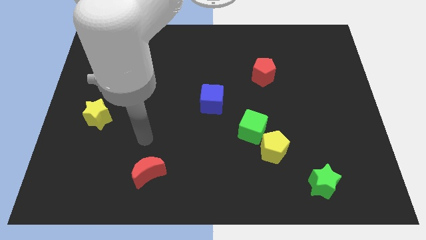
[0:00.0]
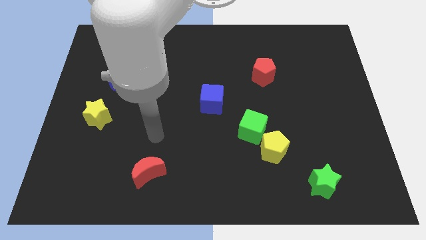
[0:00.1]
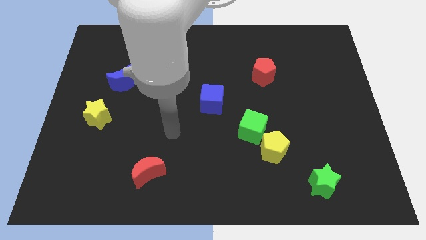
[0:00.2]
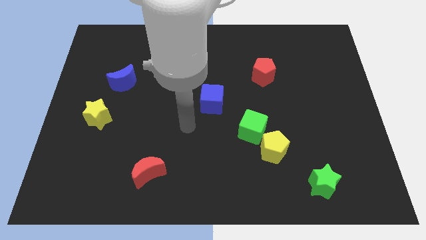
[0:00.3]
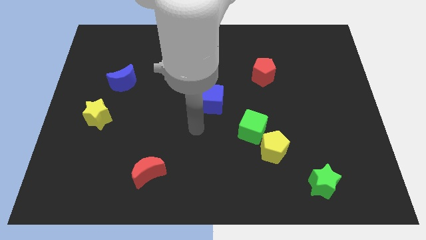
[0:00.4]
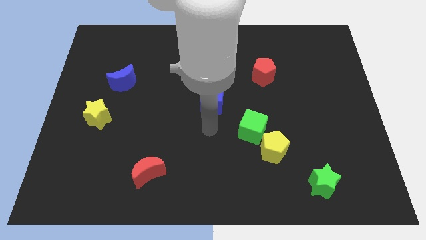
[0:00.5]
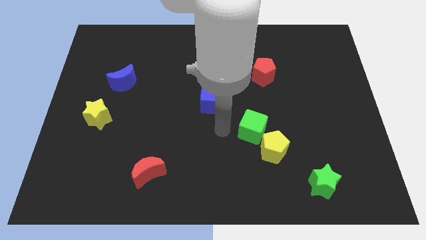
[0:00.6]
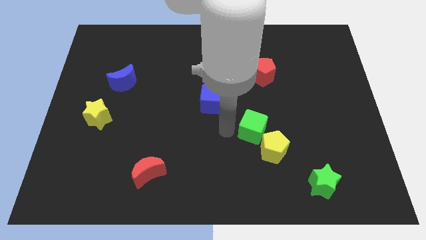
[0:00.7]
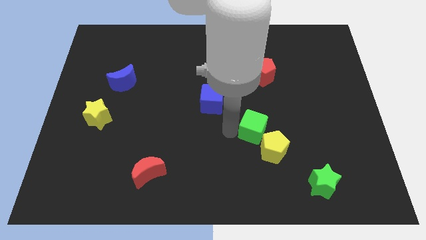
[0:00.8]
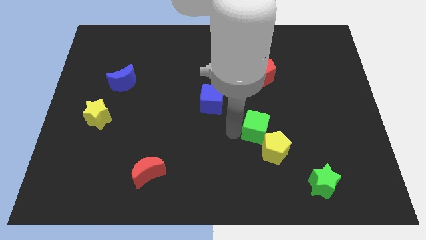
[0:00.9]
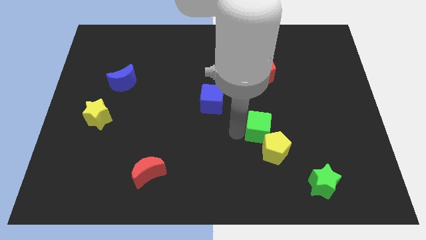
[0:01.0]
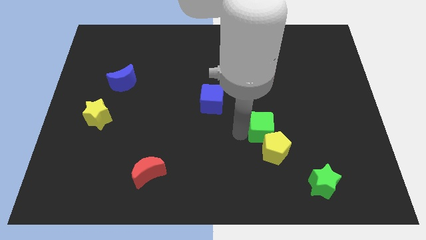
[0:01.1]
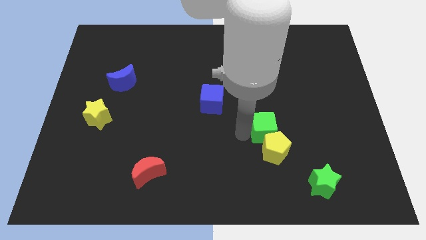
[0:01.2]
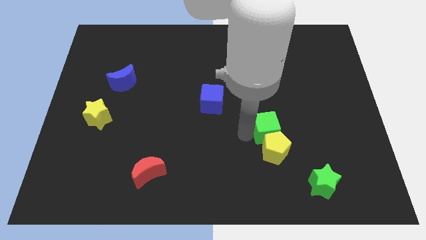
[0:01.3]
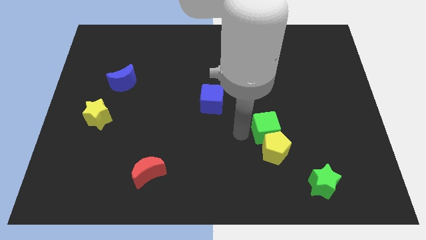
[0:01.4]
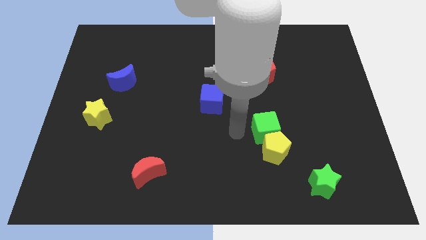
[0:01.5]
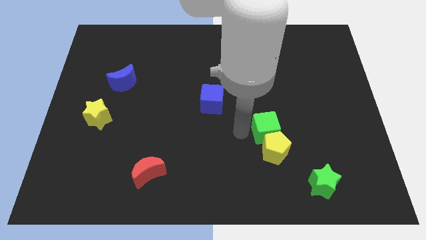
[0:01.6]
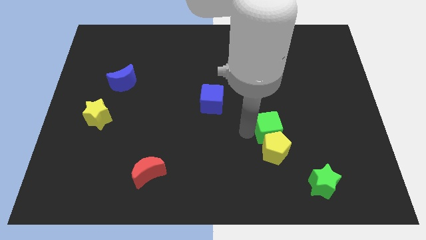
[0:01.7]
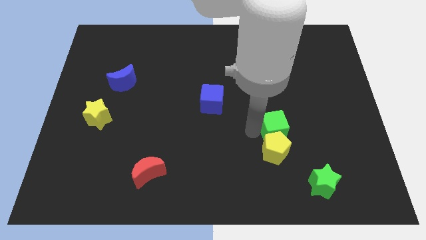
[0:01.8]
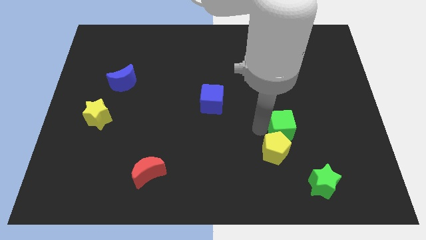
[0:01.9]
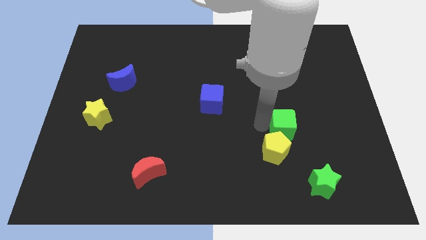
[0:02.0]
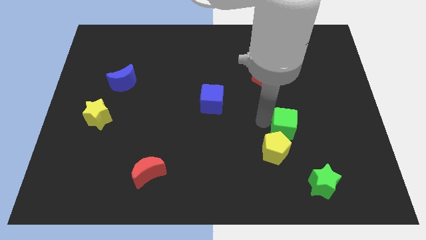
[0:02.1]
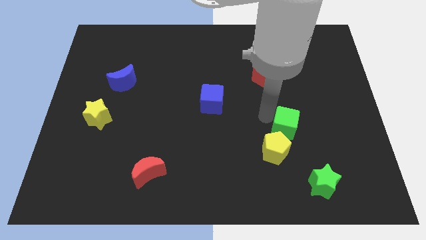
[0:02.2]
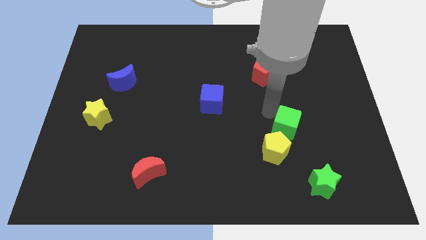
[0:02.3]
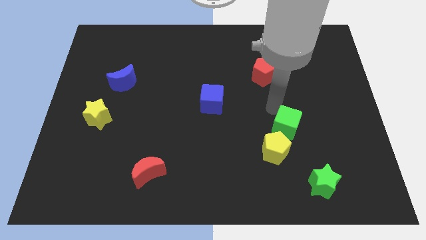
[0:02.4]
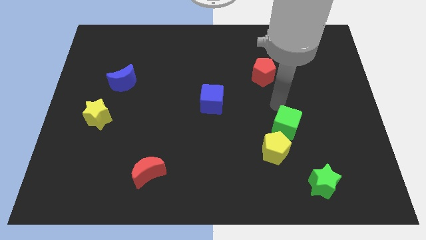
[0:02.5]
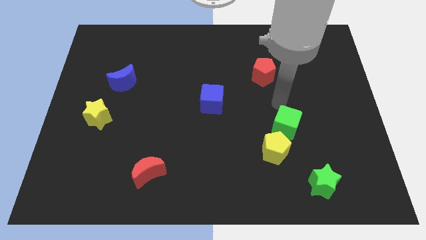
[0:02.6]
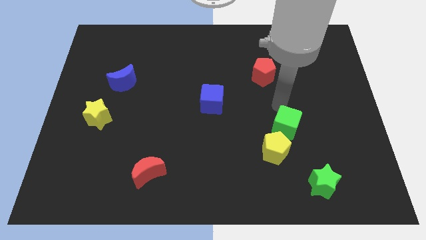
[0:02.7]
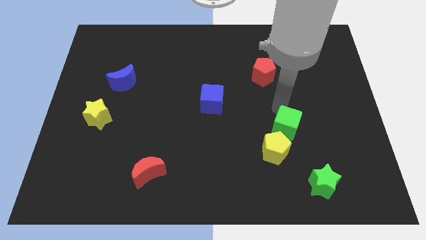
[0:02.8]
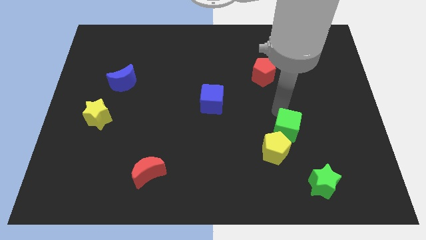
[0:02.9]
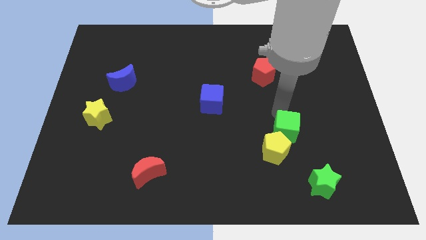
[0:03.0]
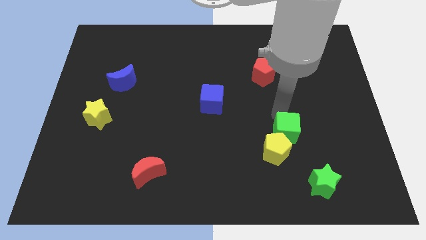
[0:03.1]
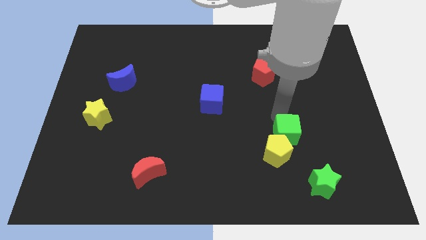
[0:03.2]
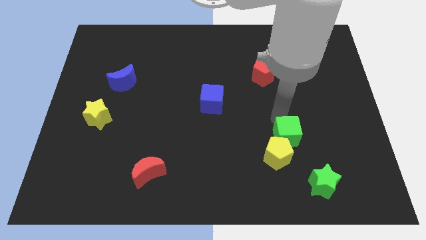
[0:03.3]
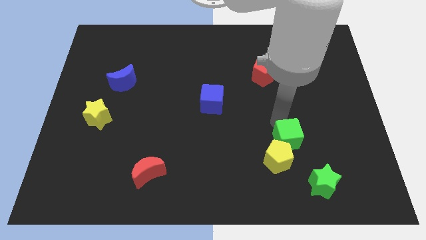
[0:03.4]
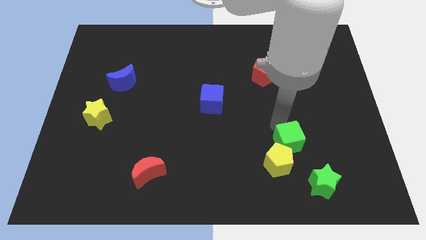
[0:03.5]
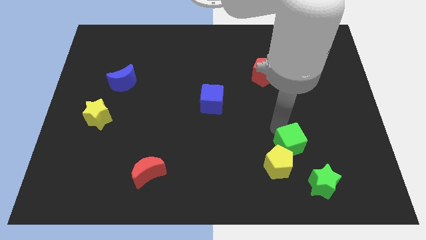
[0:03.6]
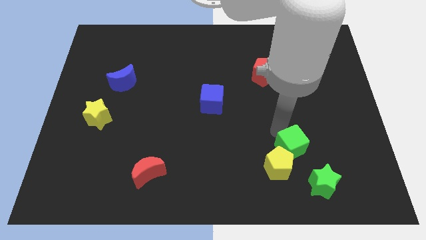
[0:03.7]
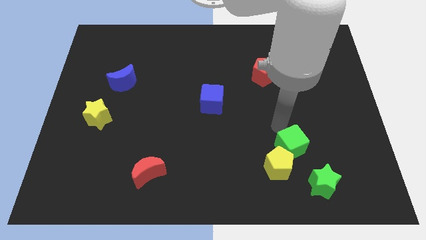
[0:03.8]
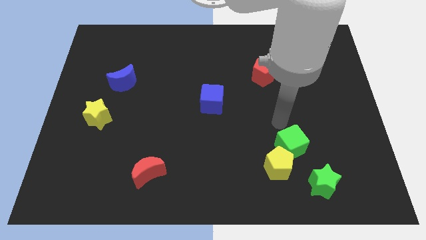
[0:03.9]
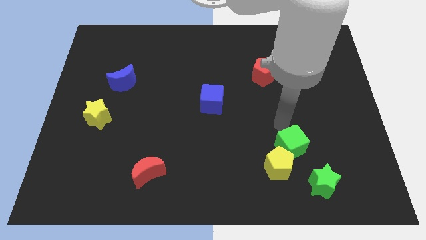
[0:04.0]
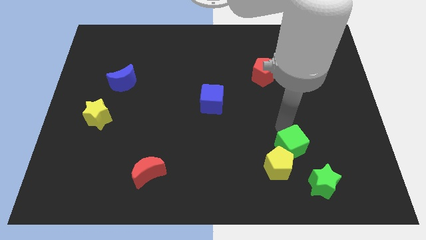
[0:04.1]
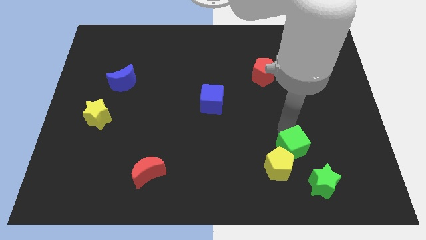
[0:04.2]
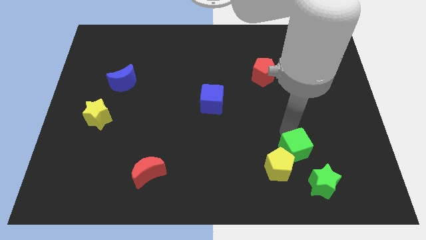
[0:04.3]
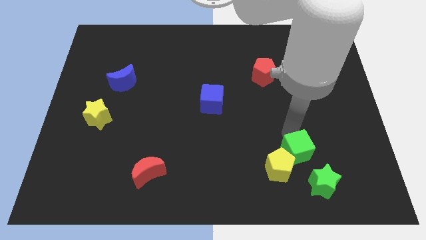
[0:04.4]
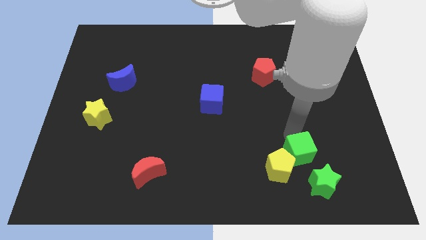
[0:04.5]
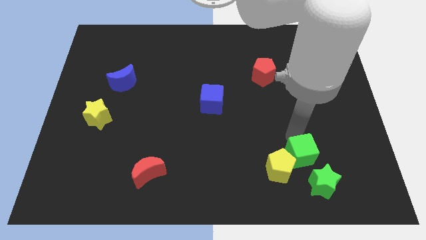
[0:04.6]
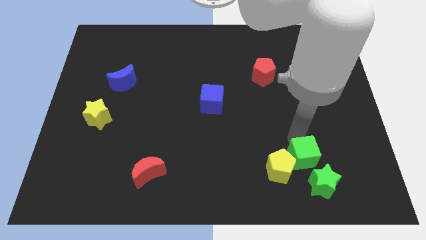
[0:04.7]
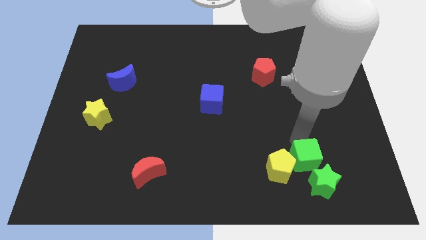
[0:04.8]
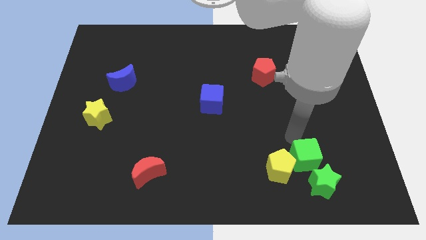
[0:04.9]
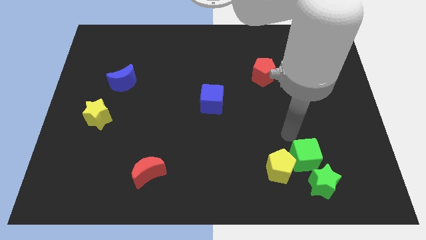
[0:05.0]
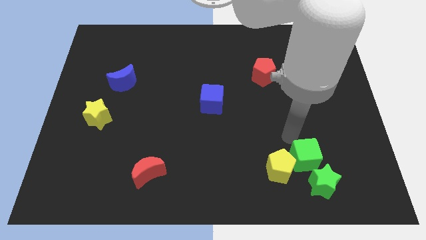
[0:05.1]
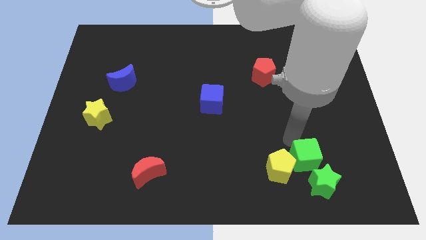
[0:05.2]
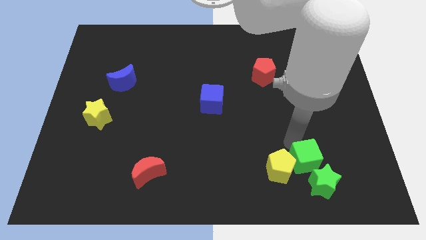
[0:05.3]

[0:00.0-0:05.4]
slide the green cube to the green star

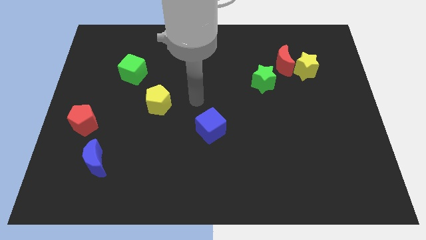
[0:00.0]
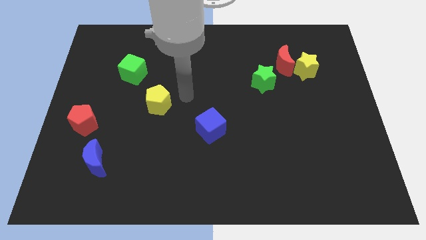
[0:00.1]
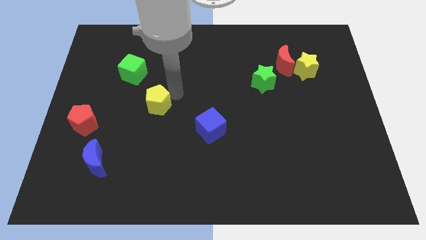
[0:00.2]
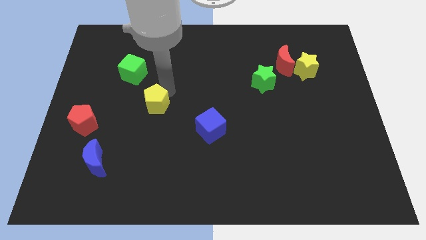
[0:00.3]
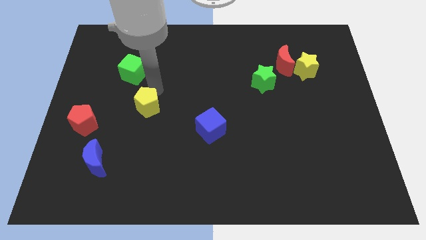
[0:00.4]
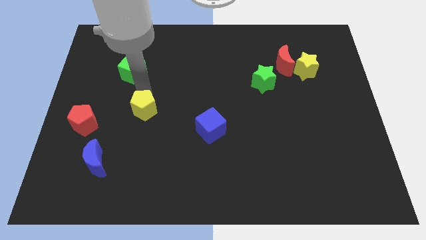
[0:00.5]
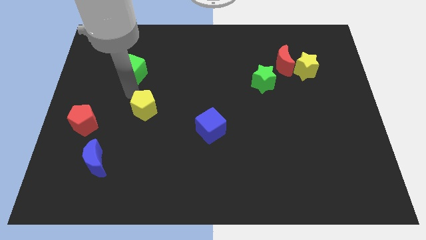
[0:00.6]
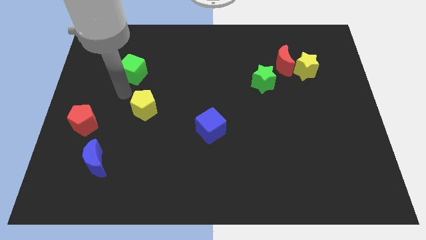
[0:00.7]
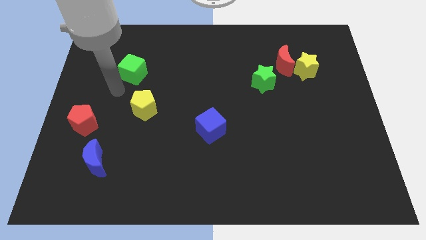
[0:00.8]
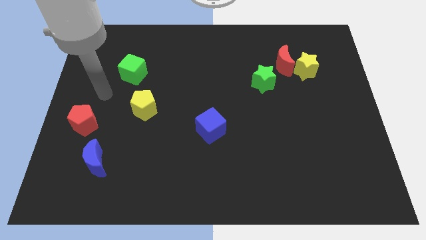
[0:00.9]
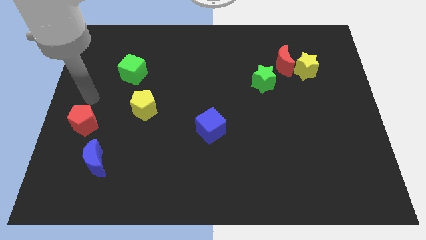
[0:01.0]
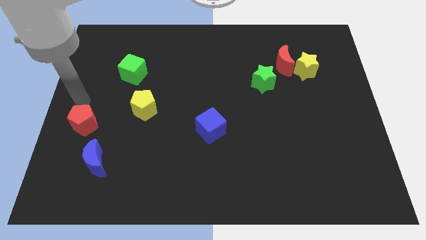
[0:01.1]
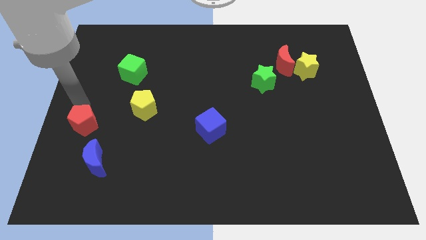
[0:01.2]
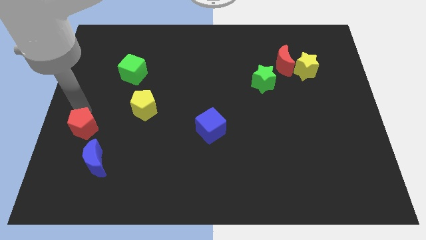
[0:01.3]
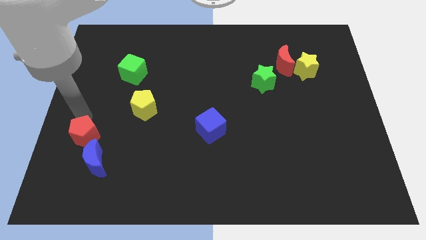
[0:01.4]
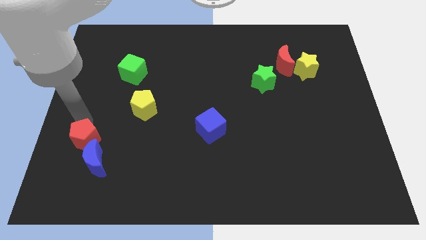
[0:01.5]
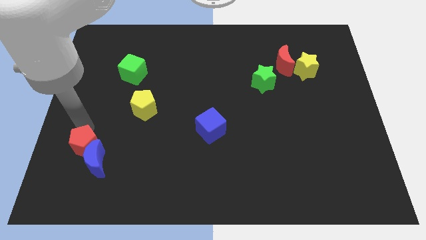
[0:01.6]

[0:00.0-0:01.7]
push the red pentagon close to the blue moon

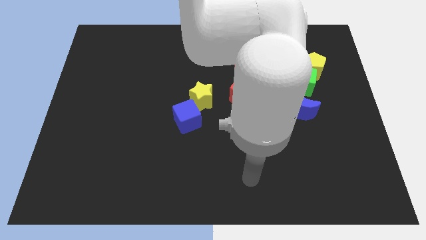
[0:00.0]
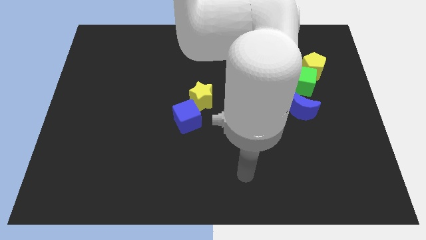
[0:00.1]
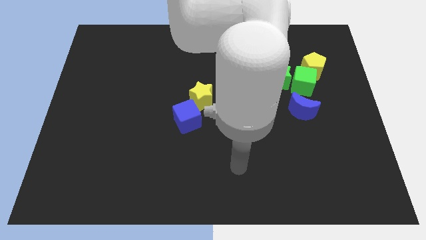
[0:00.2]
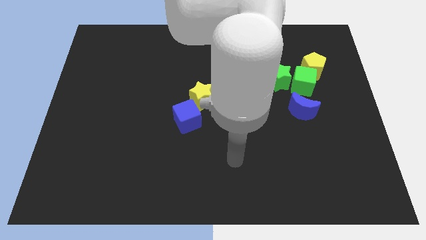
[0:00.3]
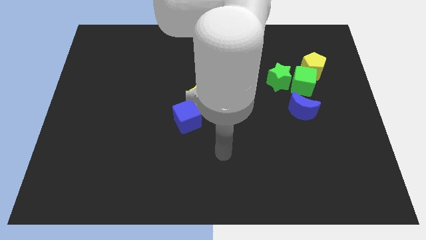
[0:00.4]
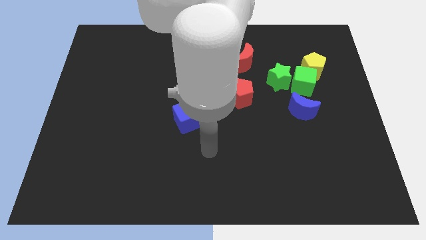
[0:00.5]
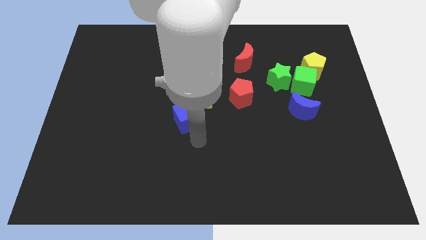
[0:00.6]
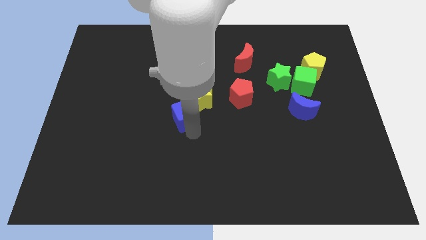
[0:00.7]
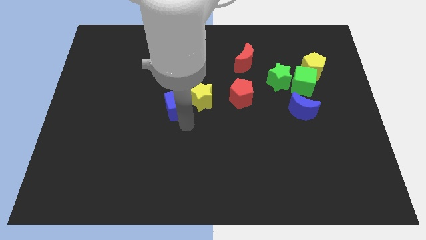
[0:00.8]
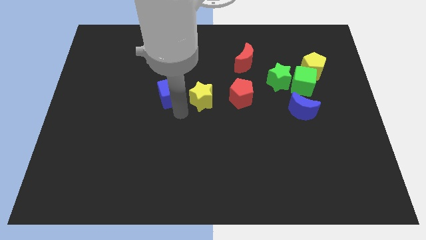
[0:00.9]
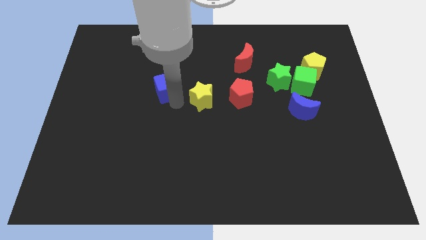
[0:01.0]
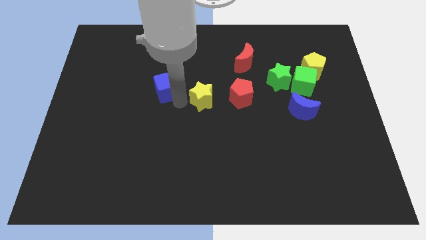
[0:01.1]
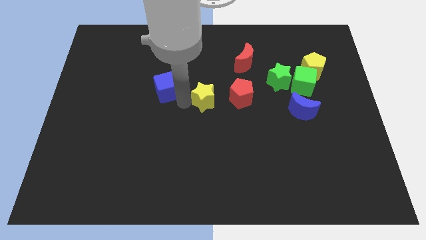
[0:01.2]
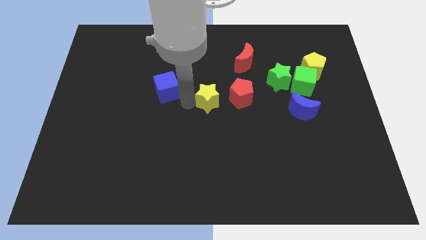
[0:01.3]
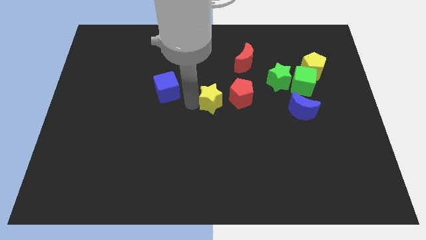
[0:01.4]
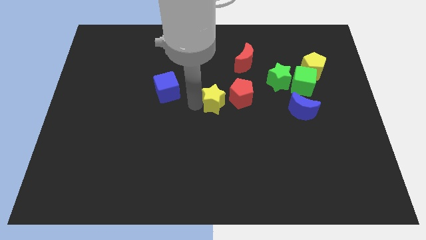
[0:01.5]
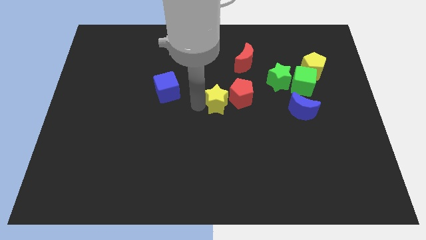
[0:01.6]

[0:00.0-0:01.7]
move the yellow star to the red pentagon
